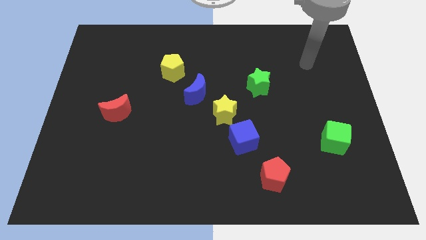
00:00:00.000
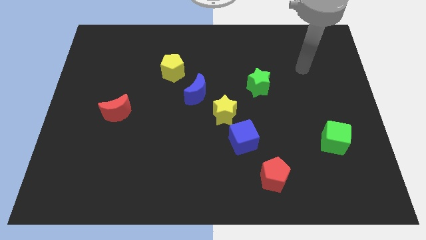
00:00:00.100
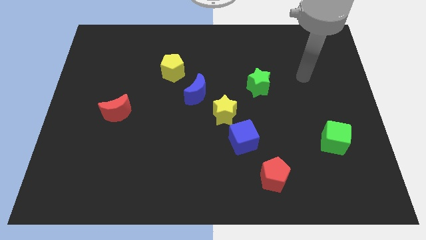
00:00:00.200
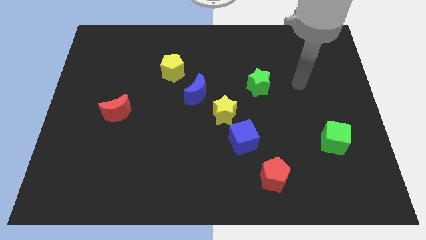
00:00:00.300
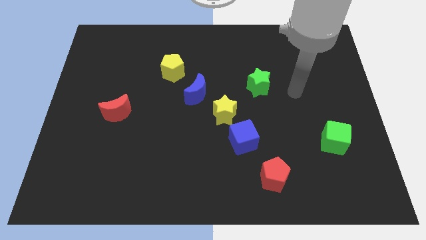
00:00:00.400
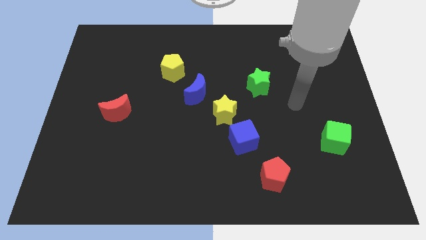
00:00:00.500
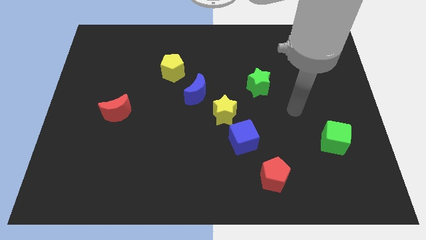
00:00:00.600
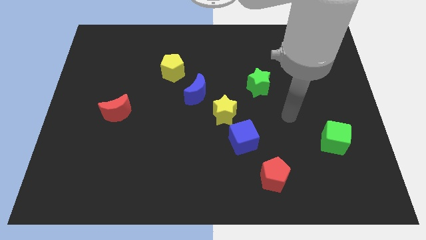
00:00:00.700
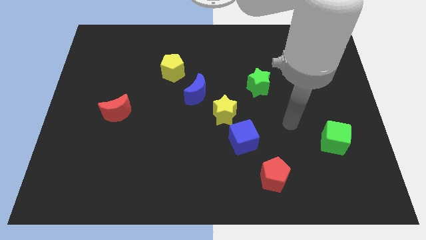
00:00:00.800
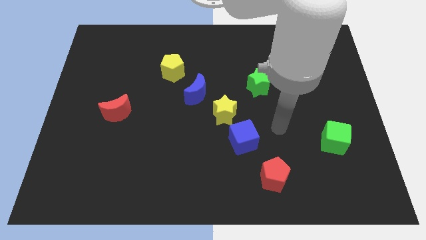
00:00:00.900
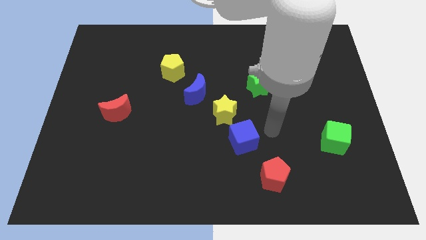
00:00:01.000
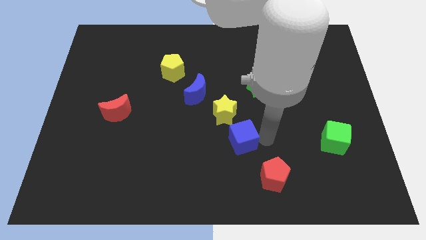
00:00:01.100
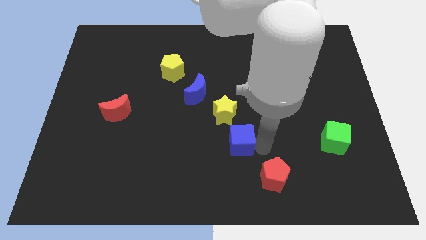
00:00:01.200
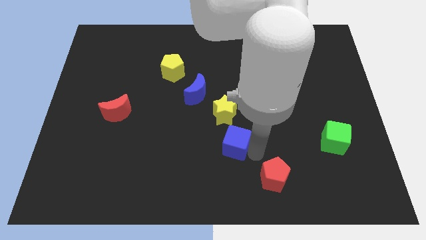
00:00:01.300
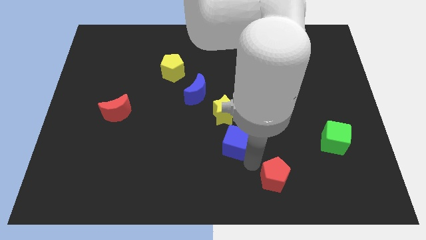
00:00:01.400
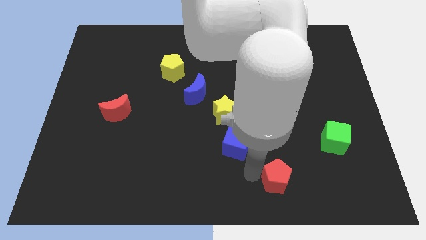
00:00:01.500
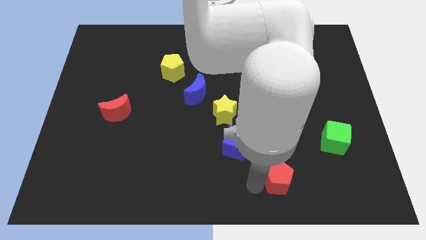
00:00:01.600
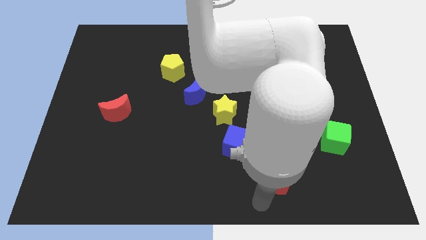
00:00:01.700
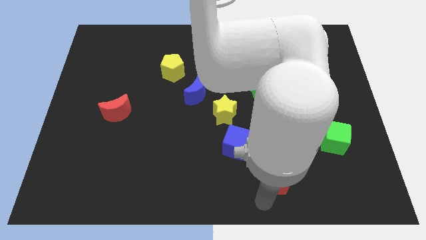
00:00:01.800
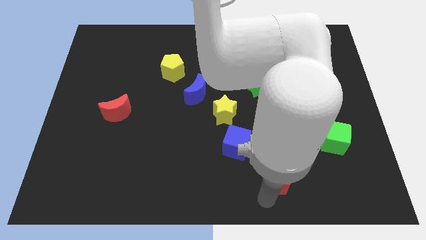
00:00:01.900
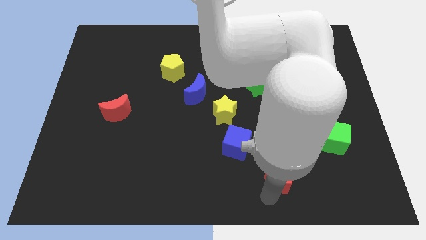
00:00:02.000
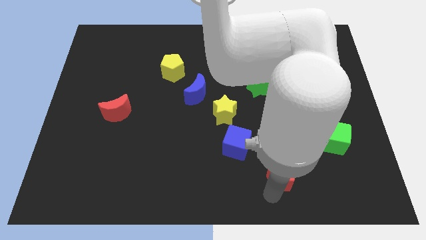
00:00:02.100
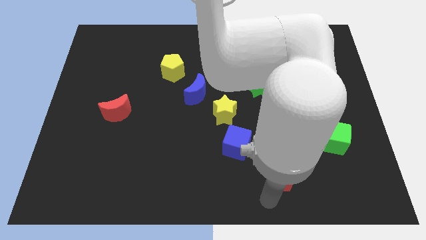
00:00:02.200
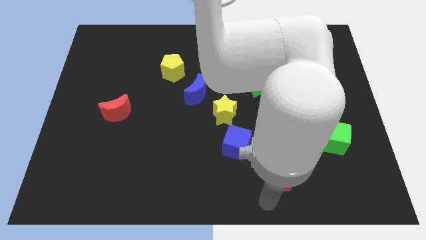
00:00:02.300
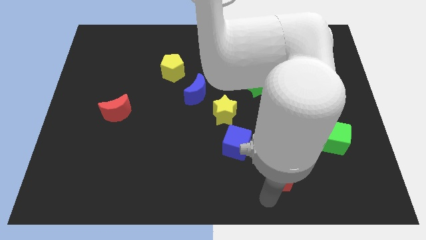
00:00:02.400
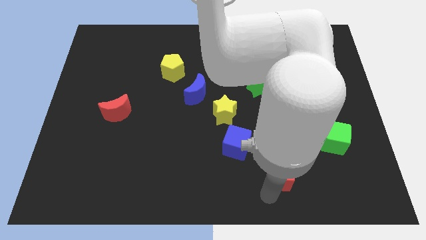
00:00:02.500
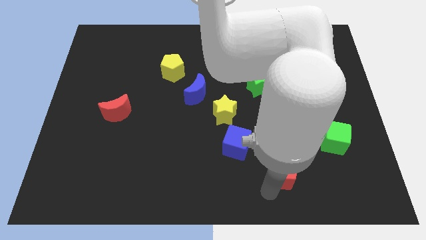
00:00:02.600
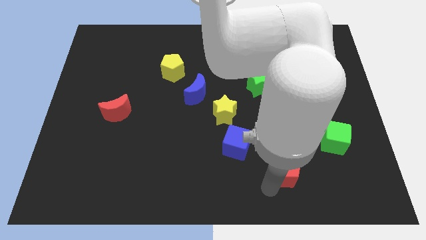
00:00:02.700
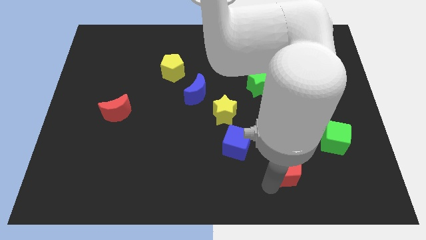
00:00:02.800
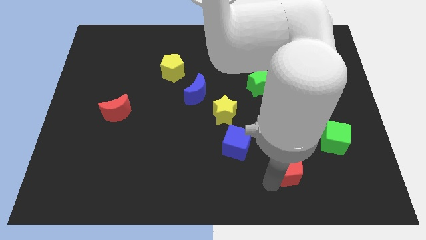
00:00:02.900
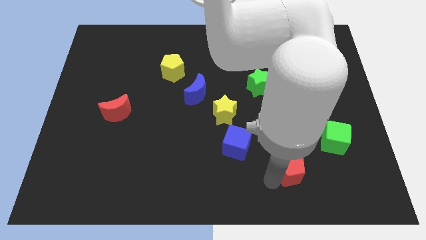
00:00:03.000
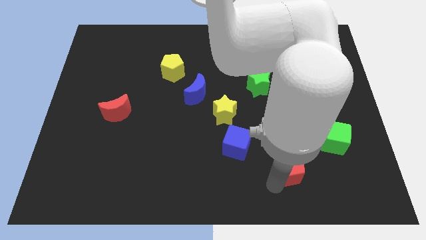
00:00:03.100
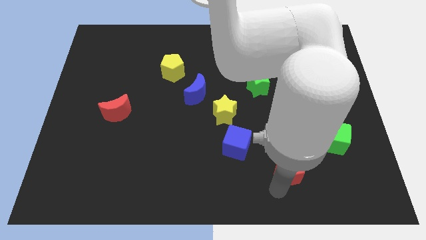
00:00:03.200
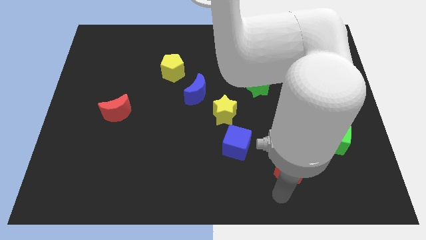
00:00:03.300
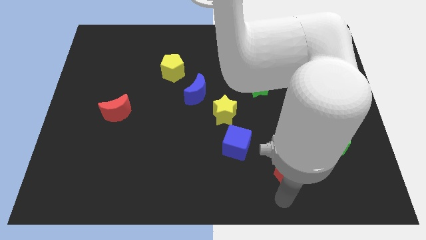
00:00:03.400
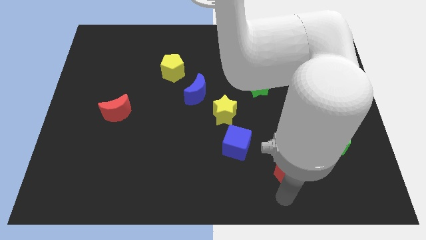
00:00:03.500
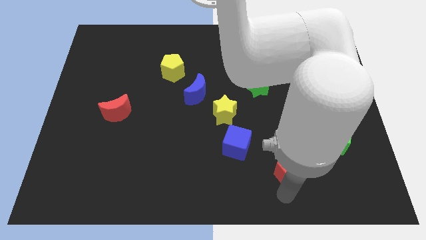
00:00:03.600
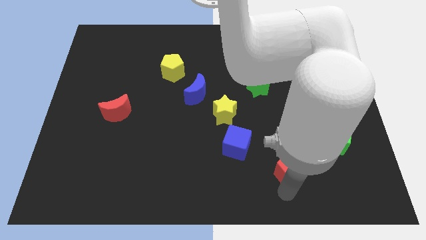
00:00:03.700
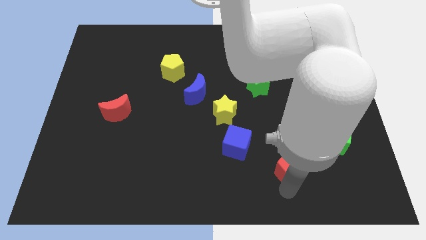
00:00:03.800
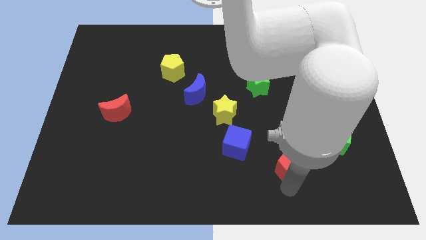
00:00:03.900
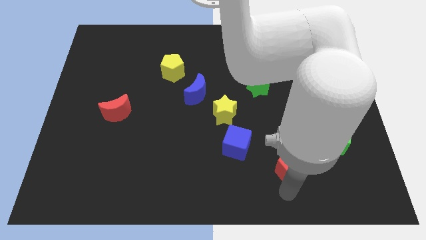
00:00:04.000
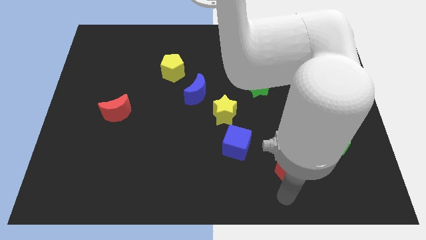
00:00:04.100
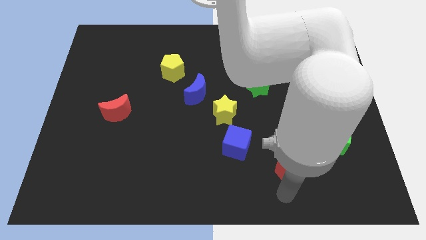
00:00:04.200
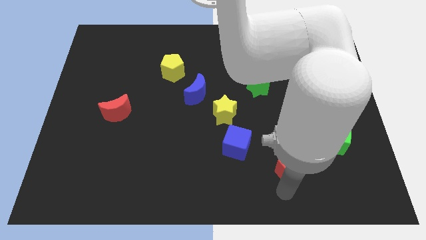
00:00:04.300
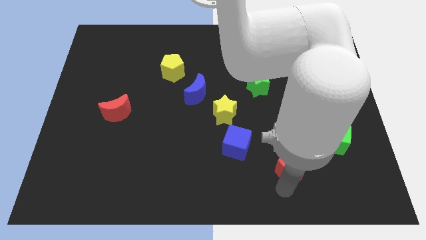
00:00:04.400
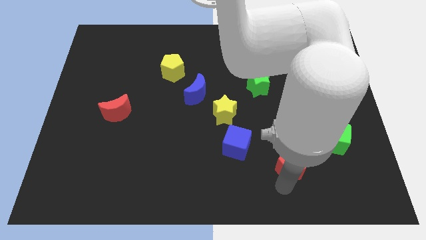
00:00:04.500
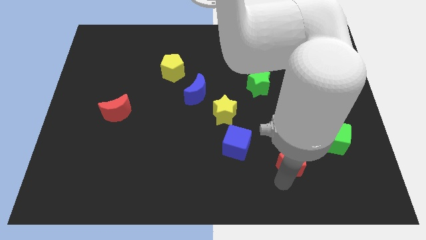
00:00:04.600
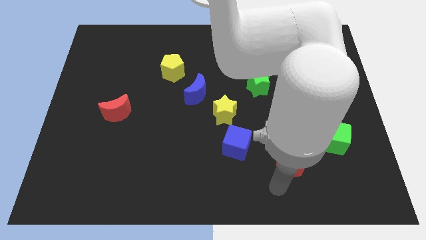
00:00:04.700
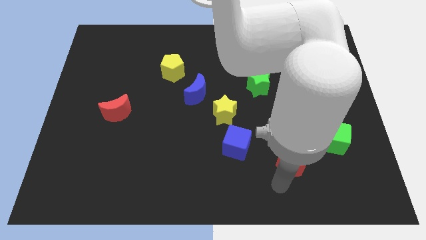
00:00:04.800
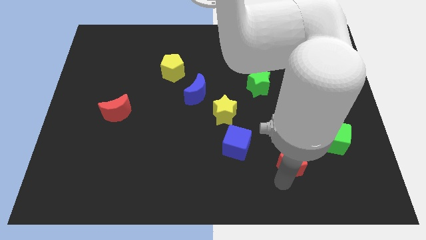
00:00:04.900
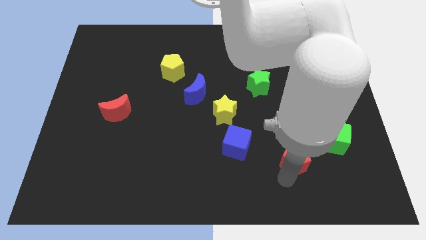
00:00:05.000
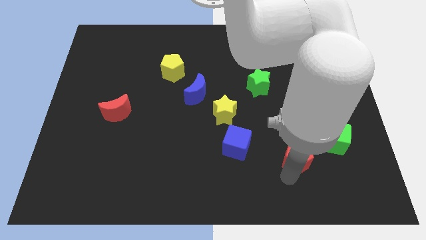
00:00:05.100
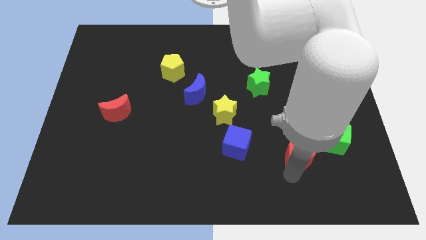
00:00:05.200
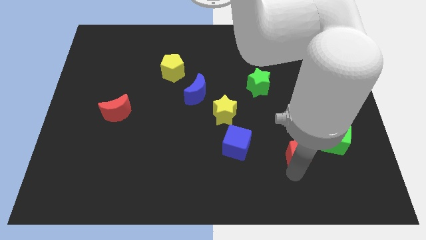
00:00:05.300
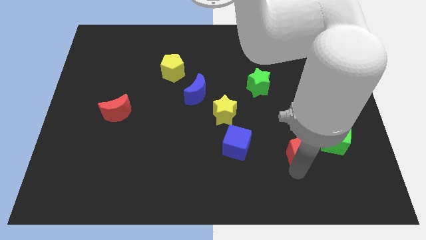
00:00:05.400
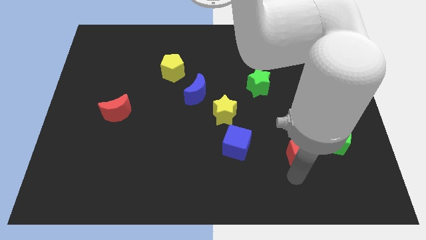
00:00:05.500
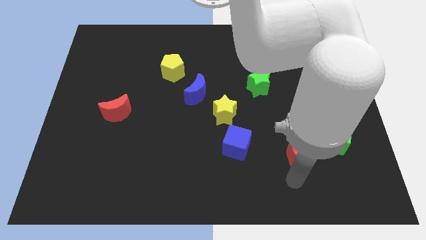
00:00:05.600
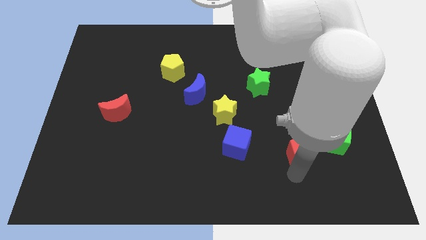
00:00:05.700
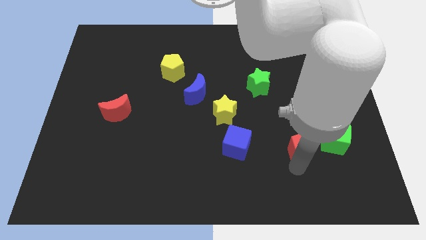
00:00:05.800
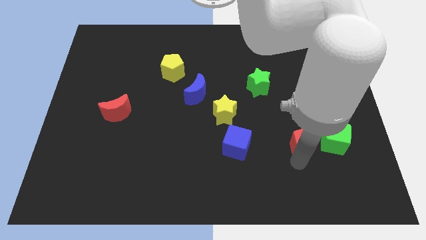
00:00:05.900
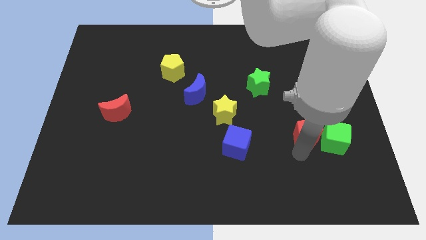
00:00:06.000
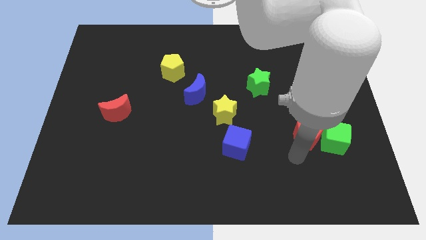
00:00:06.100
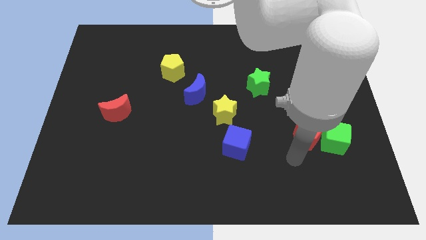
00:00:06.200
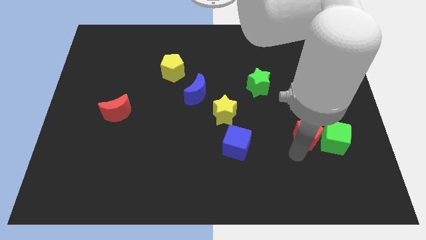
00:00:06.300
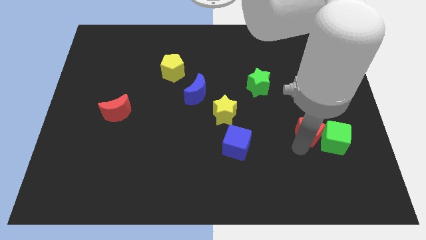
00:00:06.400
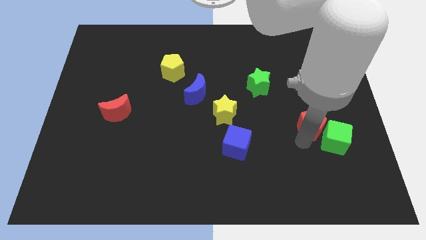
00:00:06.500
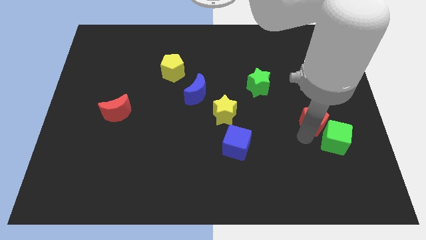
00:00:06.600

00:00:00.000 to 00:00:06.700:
move the red pentagon to the top side of the green cube

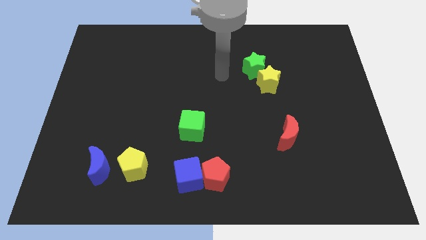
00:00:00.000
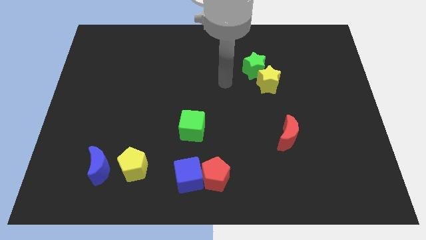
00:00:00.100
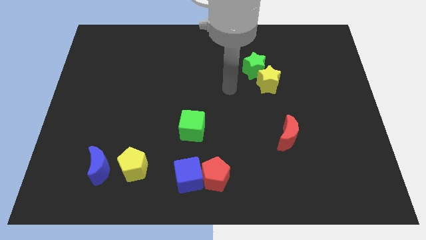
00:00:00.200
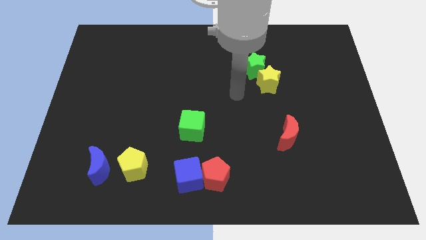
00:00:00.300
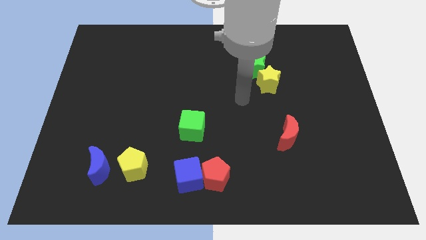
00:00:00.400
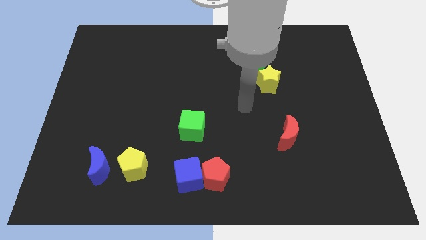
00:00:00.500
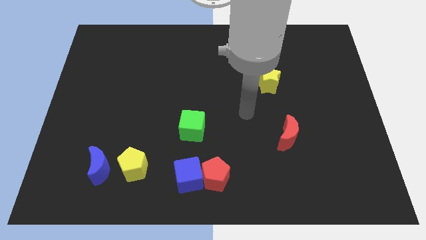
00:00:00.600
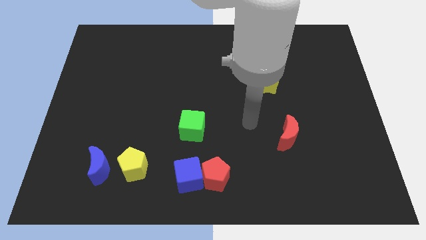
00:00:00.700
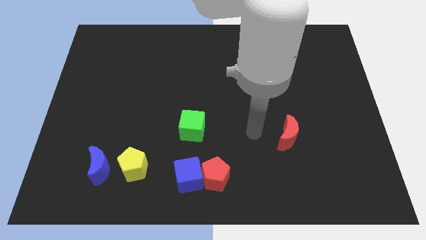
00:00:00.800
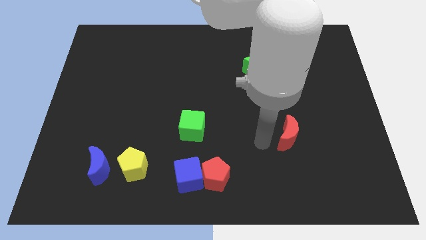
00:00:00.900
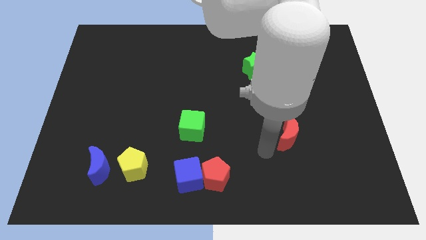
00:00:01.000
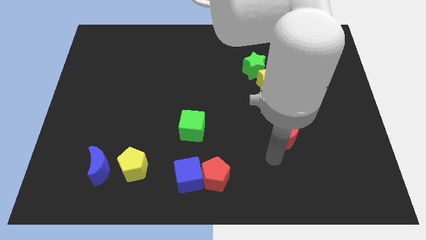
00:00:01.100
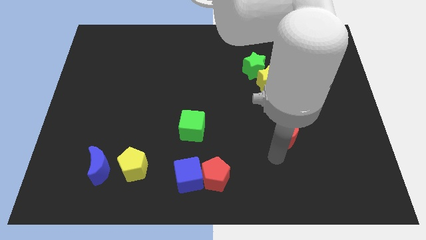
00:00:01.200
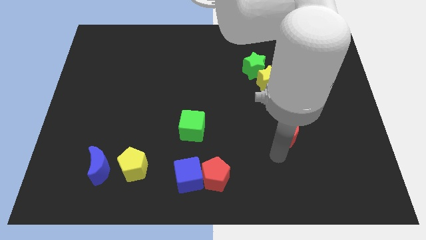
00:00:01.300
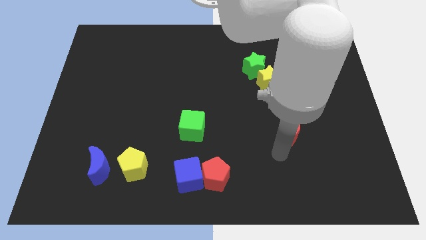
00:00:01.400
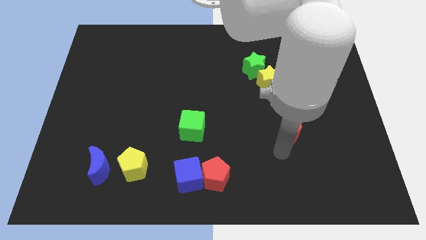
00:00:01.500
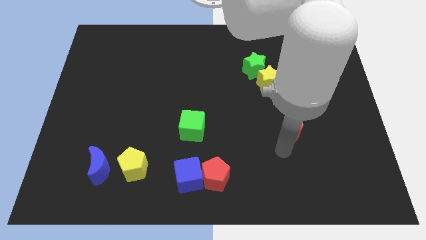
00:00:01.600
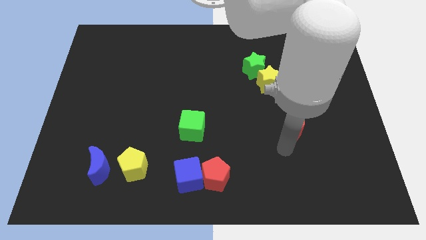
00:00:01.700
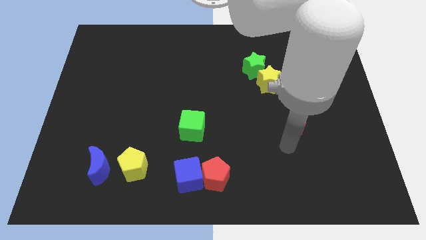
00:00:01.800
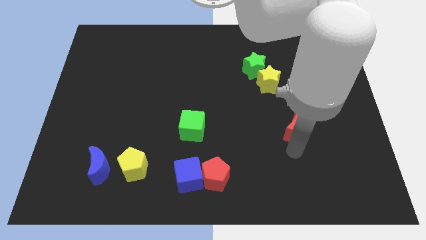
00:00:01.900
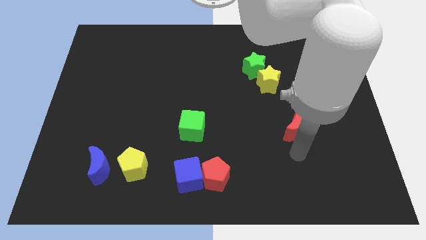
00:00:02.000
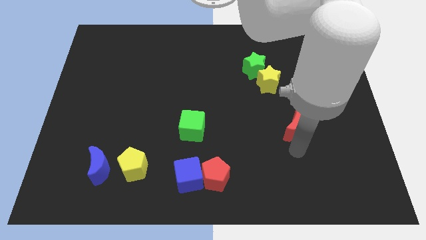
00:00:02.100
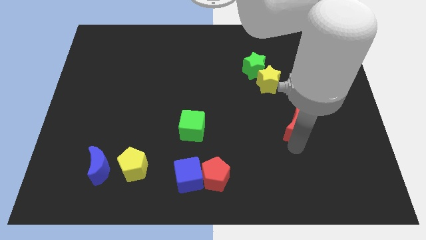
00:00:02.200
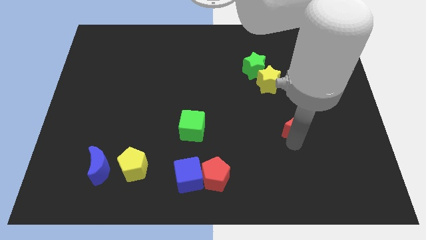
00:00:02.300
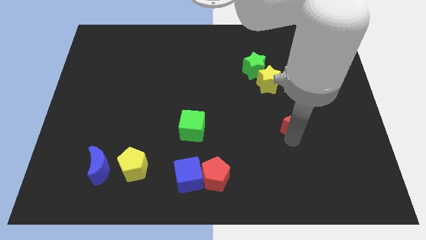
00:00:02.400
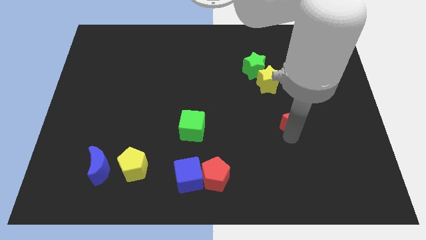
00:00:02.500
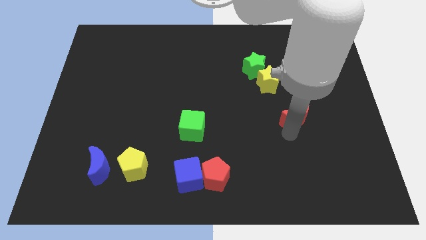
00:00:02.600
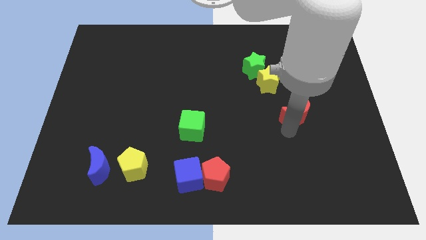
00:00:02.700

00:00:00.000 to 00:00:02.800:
slide the red moon to the bottom right of the yellow star
